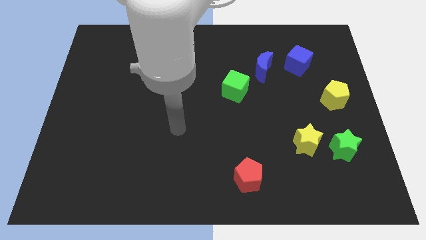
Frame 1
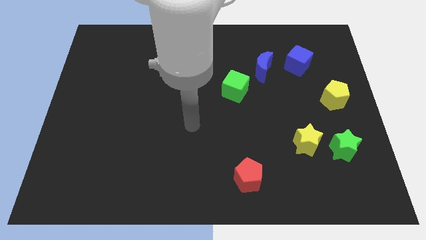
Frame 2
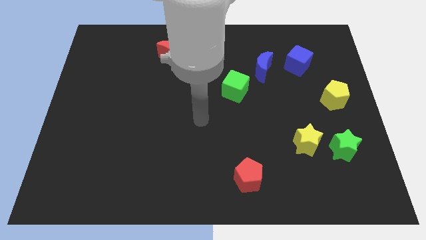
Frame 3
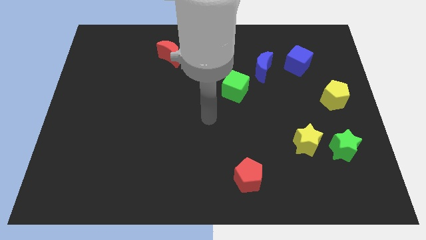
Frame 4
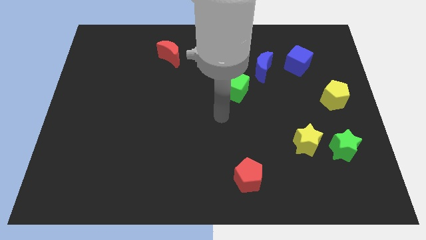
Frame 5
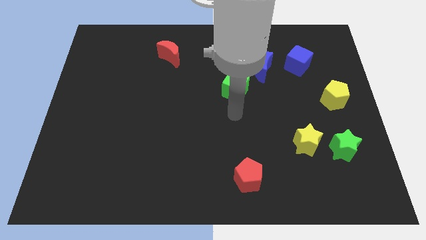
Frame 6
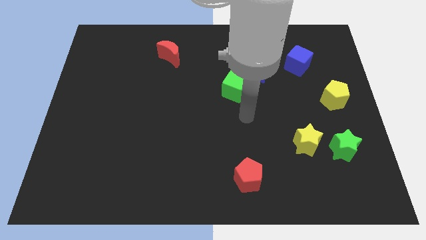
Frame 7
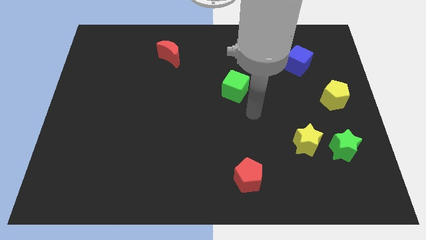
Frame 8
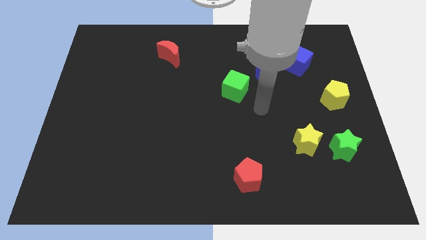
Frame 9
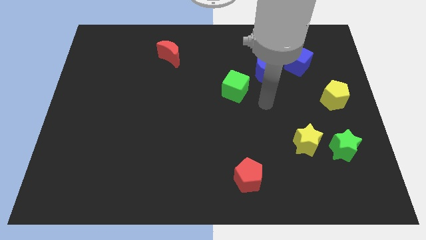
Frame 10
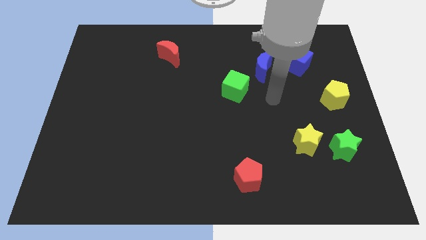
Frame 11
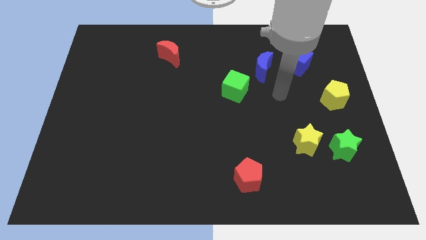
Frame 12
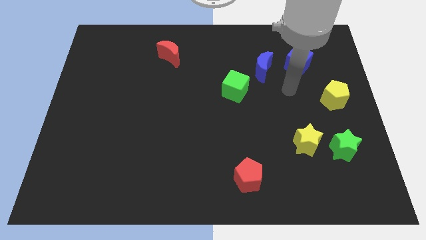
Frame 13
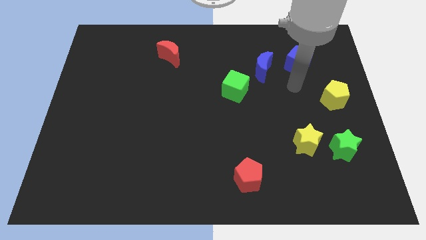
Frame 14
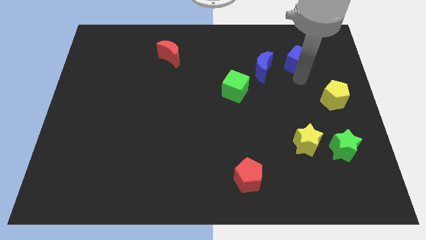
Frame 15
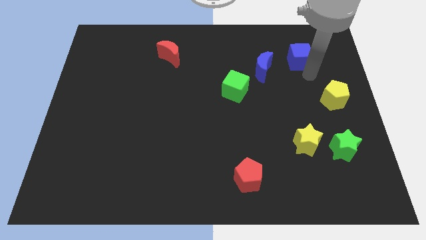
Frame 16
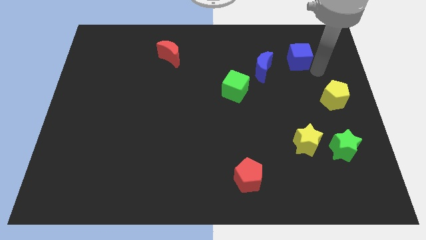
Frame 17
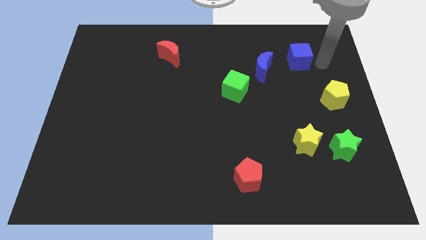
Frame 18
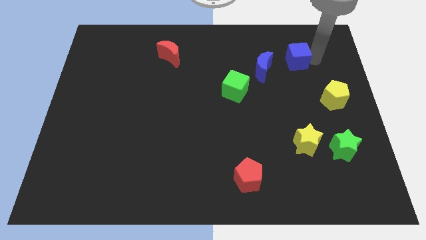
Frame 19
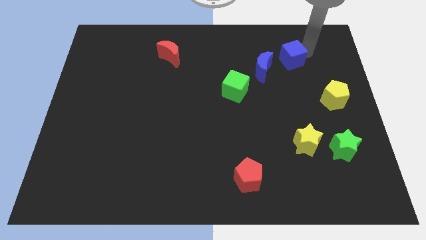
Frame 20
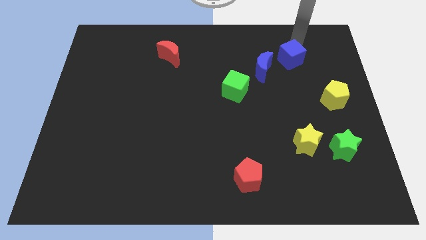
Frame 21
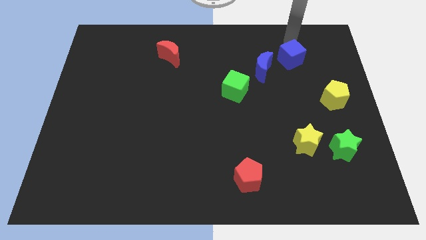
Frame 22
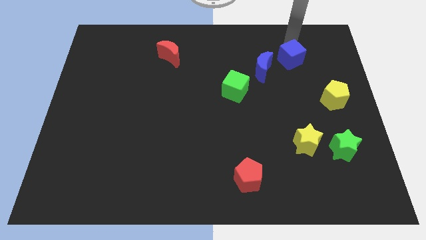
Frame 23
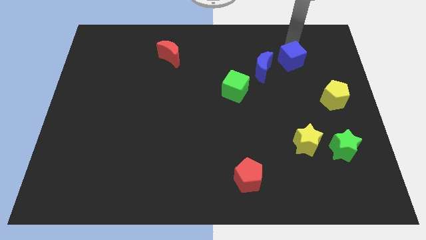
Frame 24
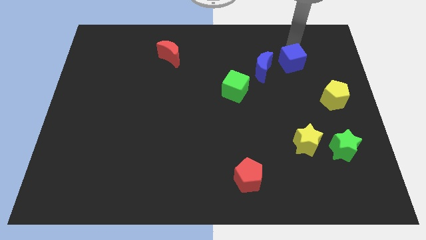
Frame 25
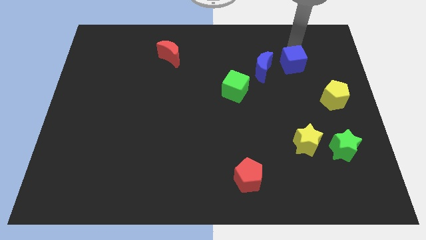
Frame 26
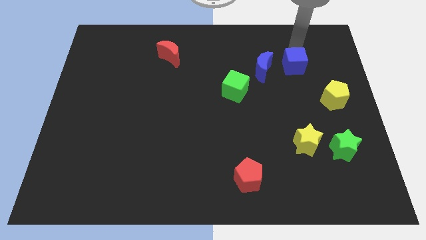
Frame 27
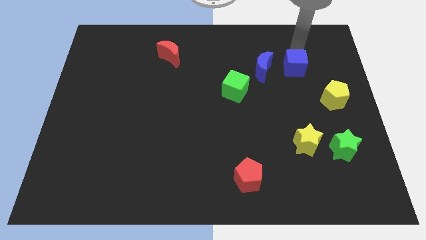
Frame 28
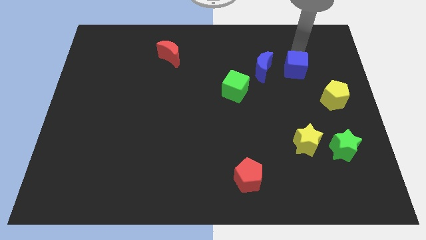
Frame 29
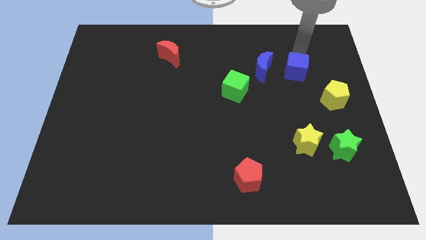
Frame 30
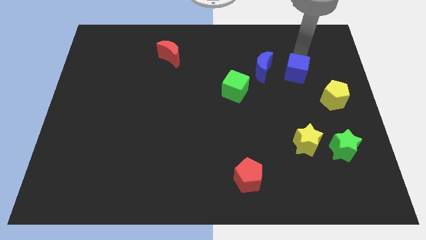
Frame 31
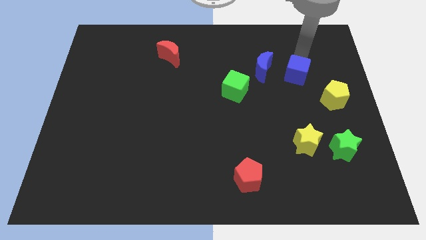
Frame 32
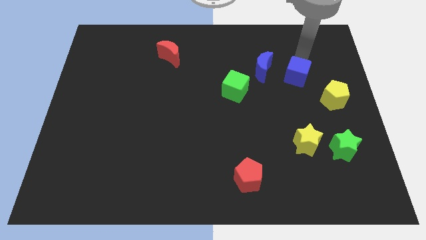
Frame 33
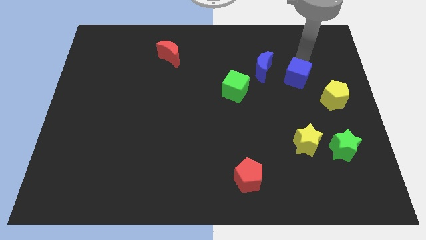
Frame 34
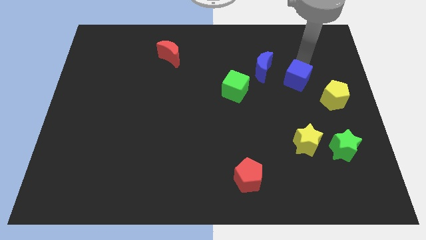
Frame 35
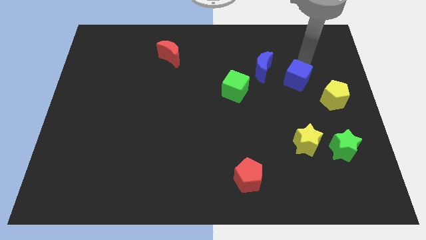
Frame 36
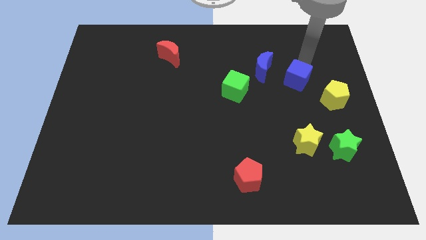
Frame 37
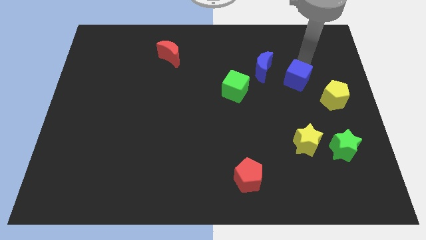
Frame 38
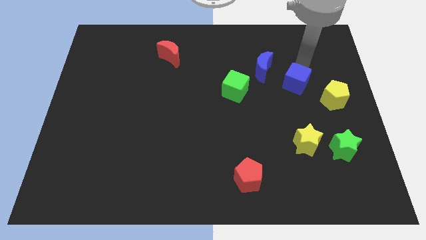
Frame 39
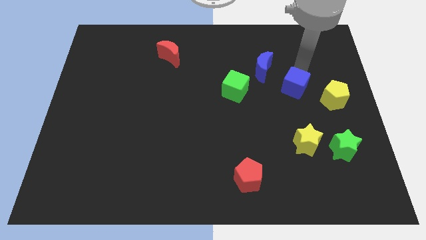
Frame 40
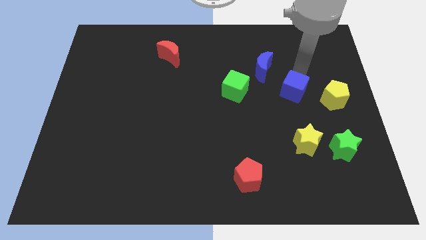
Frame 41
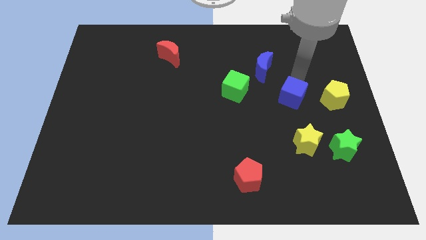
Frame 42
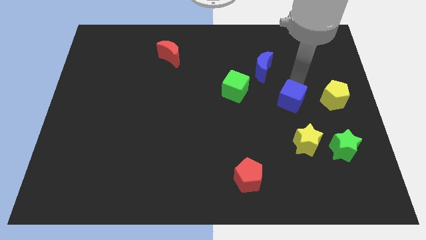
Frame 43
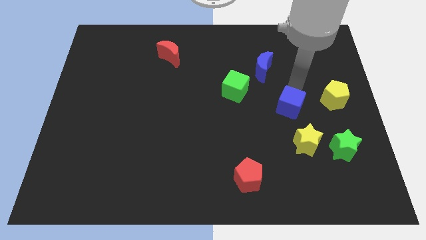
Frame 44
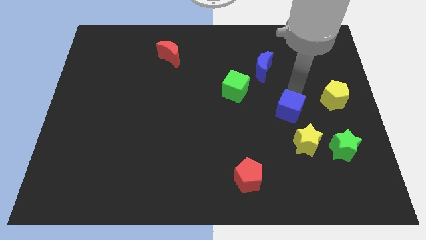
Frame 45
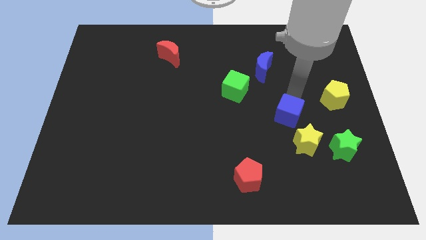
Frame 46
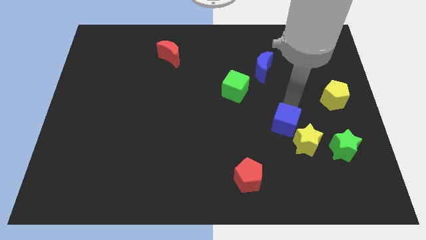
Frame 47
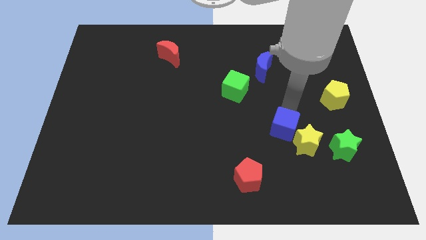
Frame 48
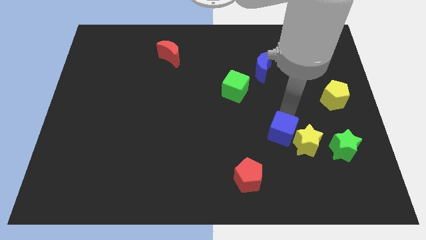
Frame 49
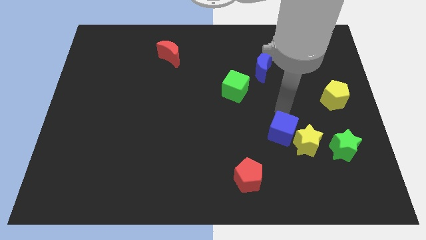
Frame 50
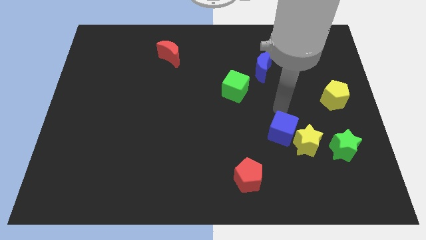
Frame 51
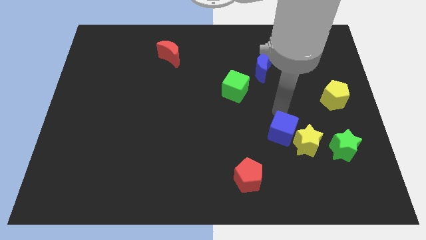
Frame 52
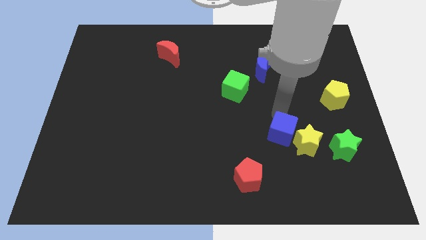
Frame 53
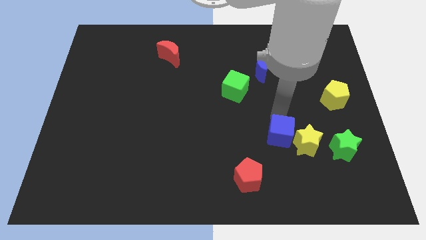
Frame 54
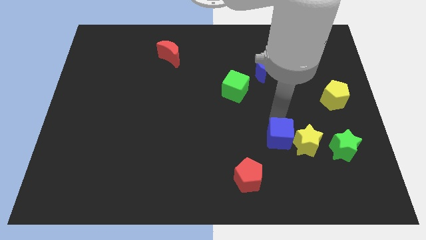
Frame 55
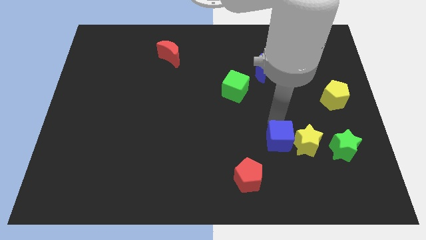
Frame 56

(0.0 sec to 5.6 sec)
put the blue cube diagonally down and to the left of the yellow star
